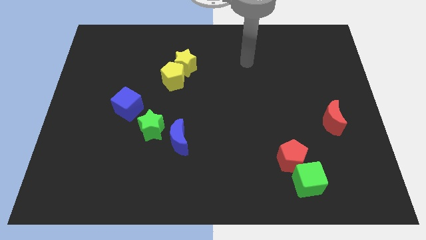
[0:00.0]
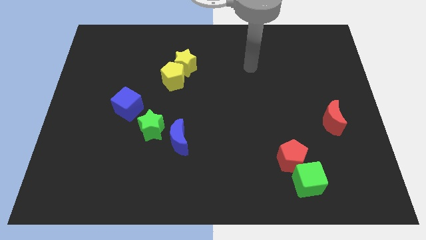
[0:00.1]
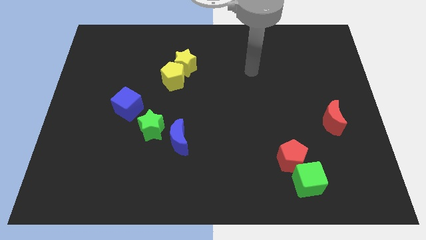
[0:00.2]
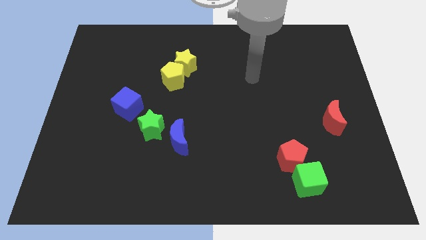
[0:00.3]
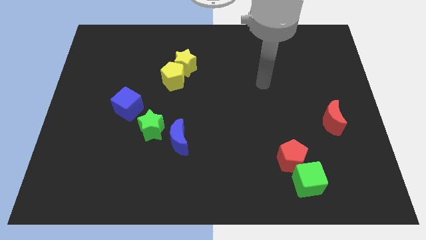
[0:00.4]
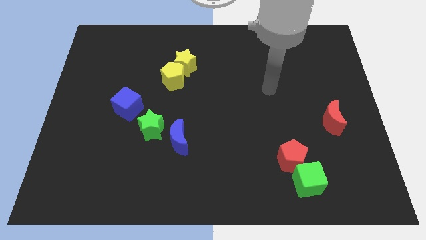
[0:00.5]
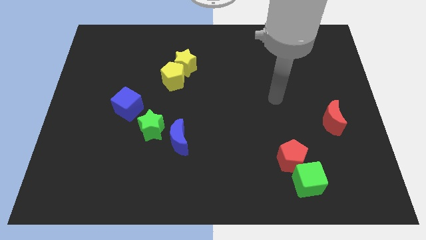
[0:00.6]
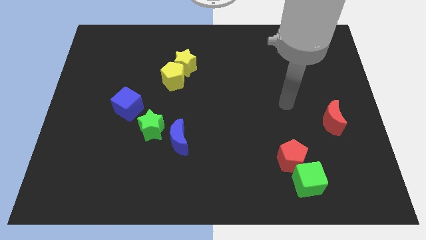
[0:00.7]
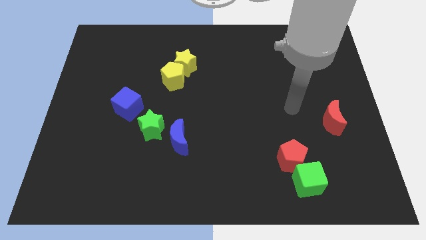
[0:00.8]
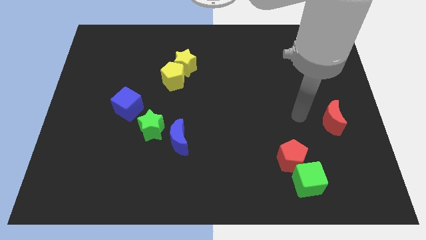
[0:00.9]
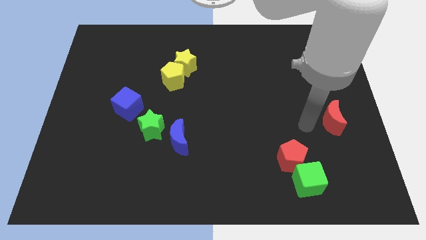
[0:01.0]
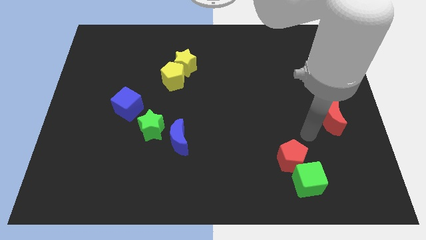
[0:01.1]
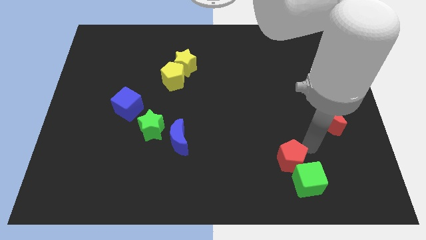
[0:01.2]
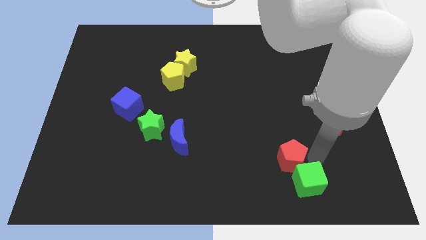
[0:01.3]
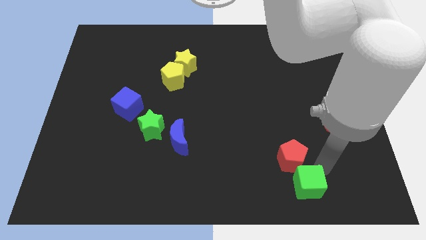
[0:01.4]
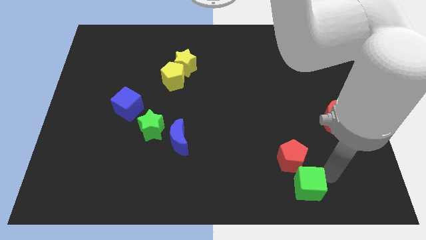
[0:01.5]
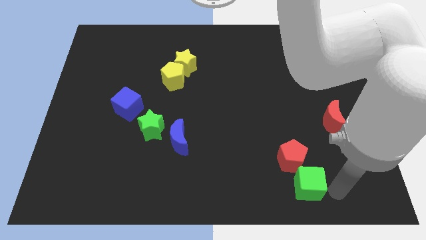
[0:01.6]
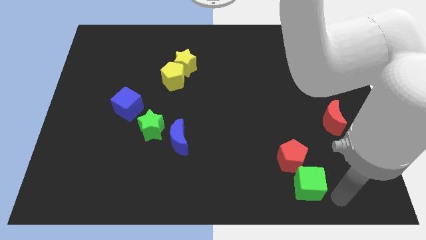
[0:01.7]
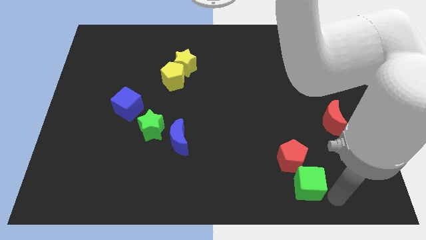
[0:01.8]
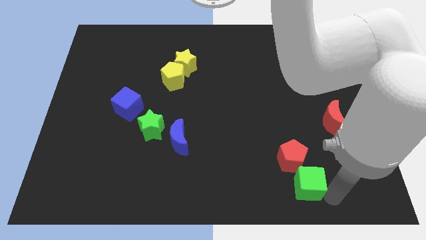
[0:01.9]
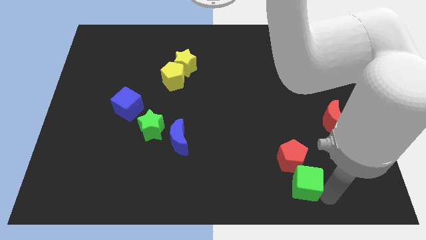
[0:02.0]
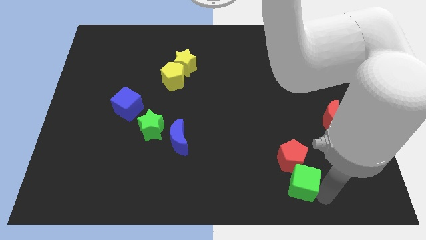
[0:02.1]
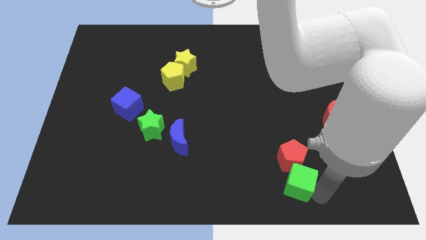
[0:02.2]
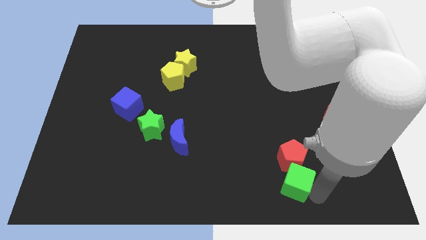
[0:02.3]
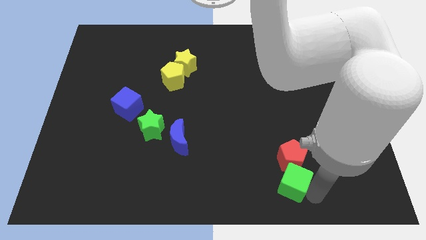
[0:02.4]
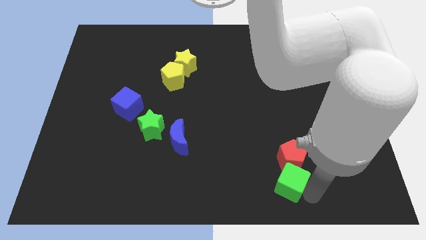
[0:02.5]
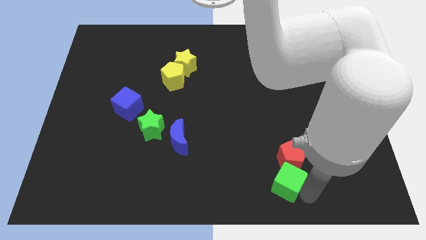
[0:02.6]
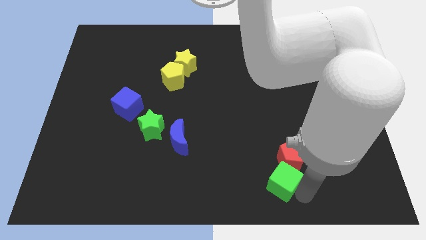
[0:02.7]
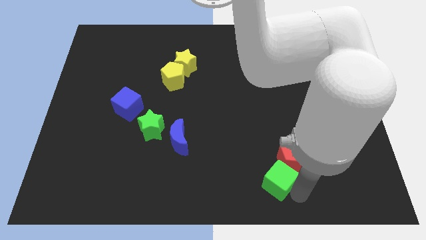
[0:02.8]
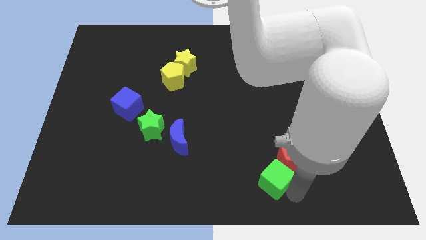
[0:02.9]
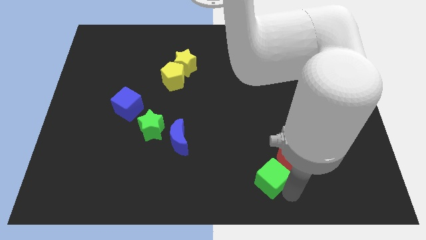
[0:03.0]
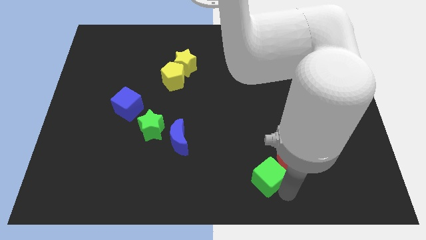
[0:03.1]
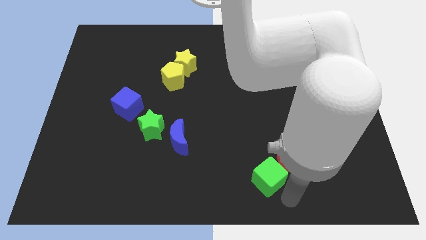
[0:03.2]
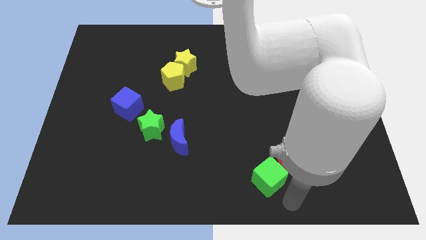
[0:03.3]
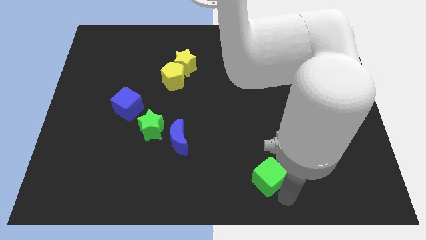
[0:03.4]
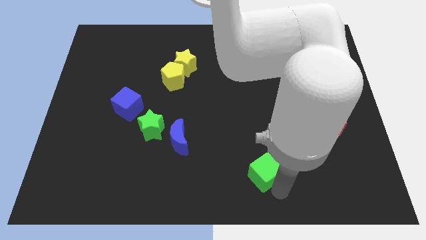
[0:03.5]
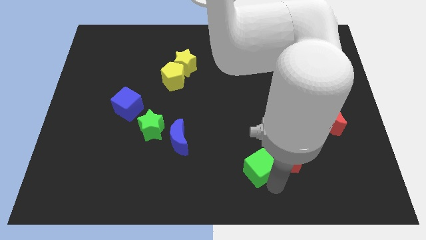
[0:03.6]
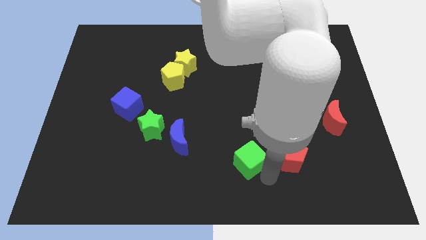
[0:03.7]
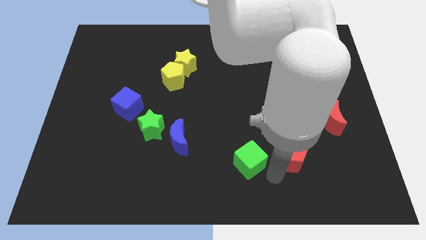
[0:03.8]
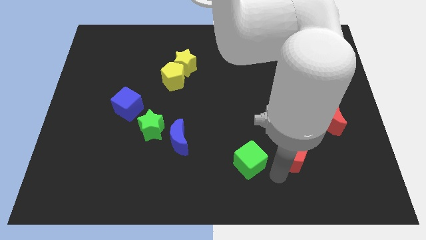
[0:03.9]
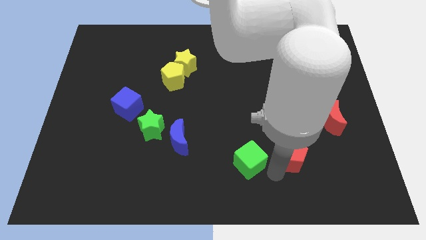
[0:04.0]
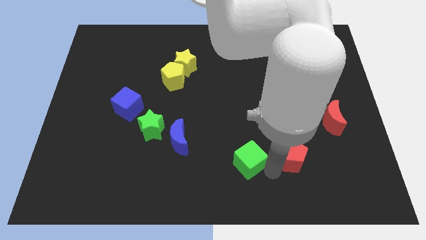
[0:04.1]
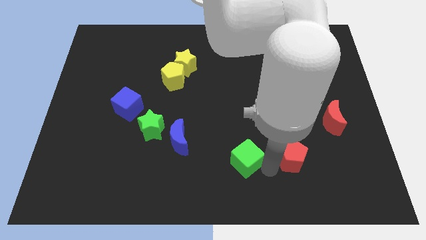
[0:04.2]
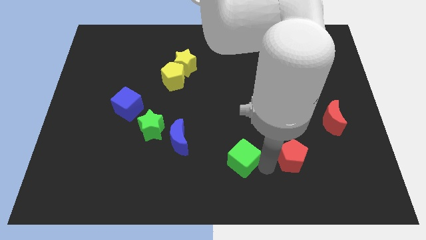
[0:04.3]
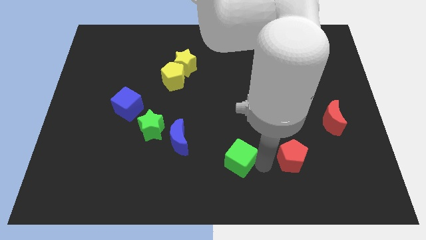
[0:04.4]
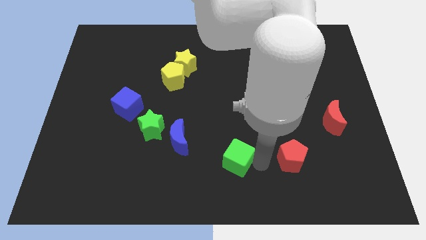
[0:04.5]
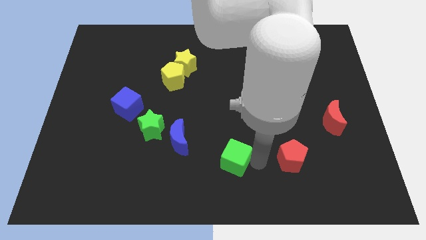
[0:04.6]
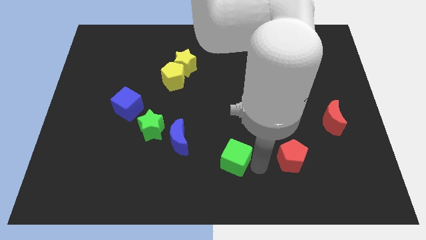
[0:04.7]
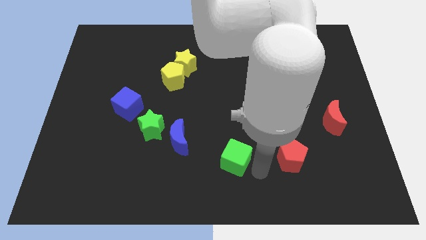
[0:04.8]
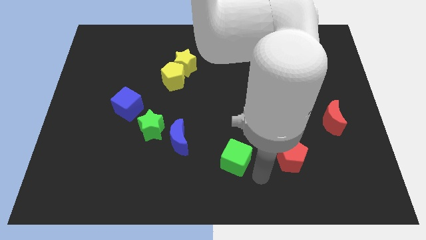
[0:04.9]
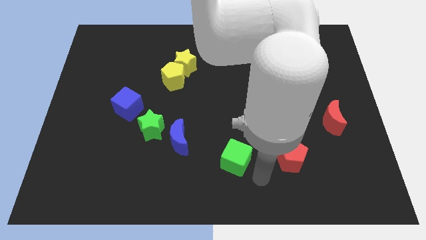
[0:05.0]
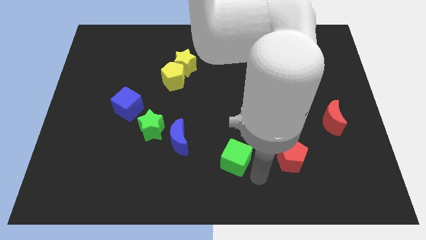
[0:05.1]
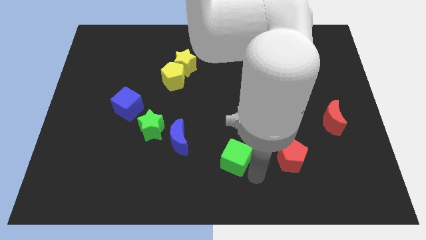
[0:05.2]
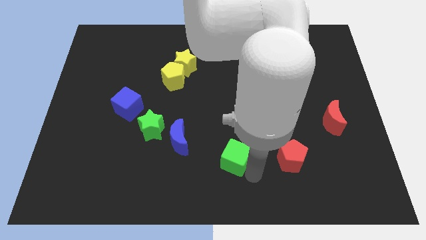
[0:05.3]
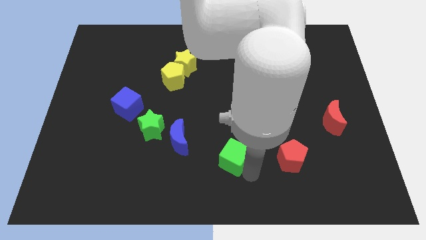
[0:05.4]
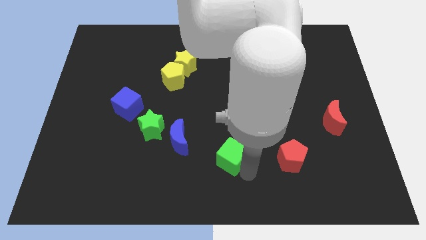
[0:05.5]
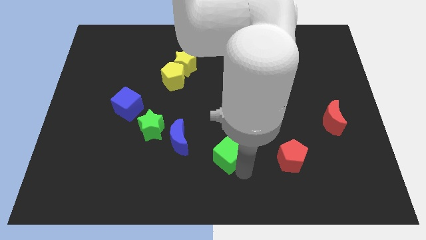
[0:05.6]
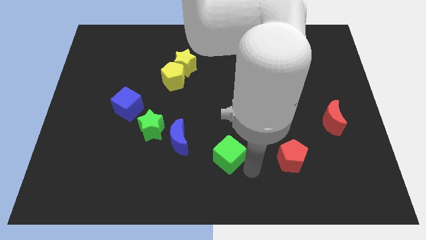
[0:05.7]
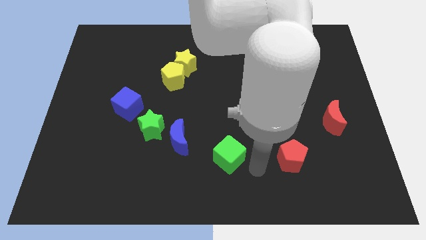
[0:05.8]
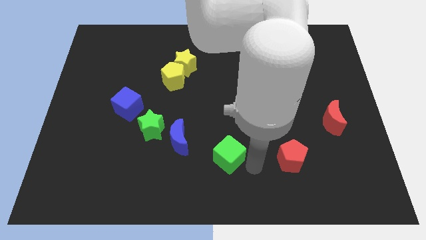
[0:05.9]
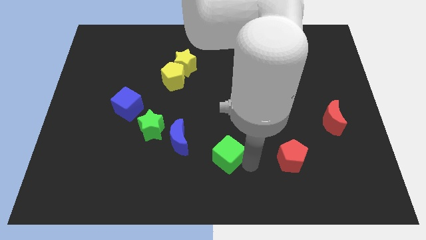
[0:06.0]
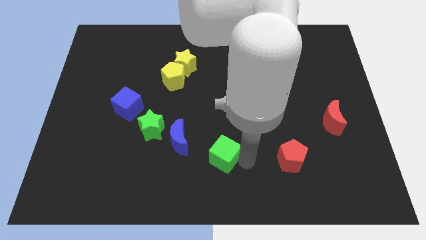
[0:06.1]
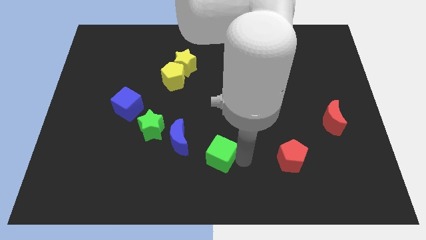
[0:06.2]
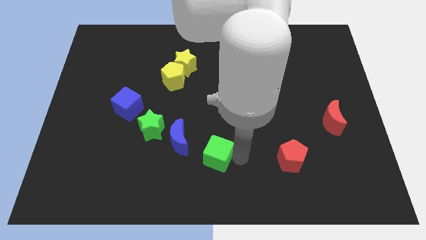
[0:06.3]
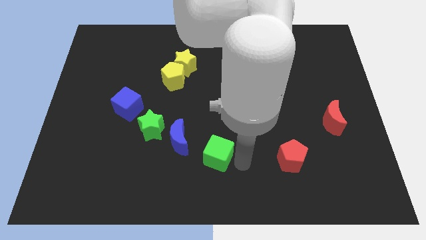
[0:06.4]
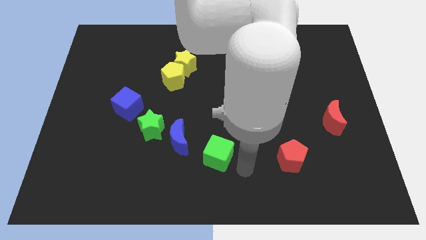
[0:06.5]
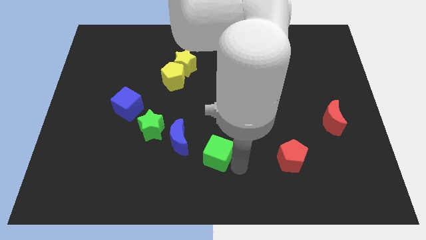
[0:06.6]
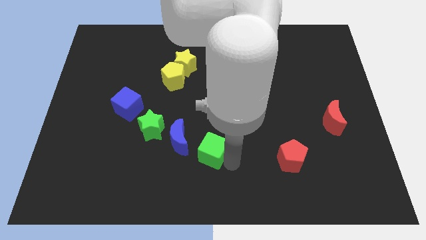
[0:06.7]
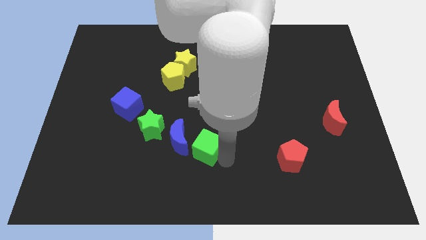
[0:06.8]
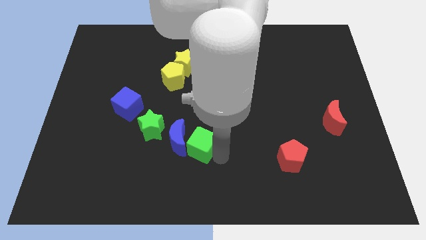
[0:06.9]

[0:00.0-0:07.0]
push the green cube close to the blue moon

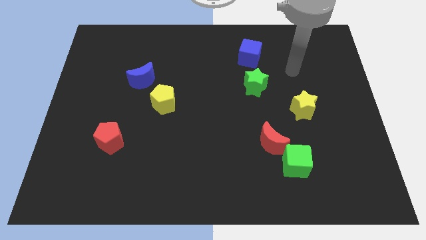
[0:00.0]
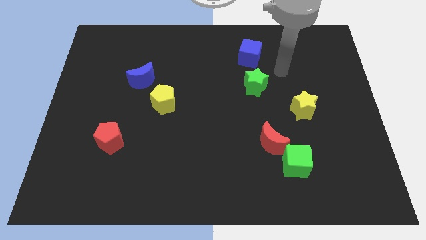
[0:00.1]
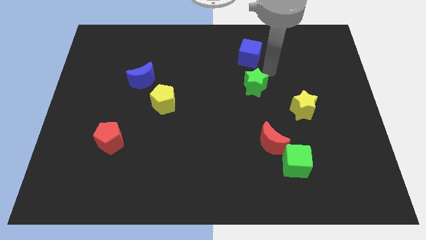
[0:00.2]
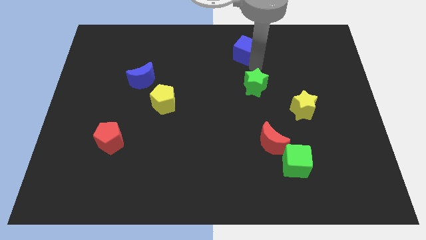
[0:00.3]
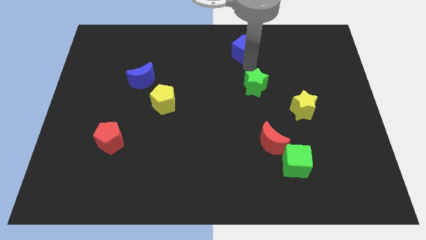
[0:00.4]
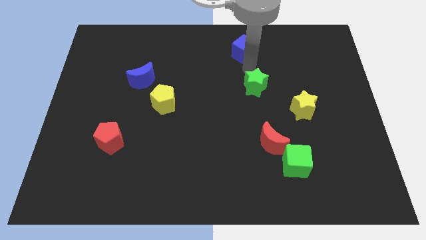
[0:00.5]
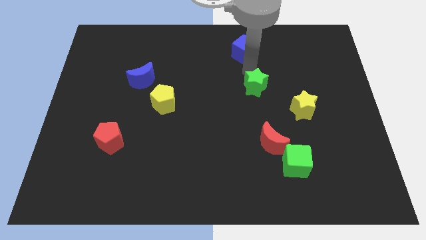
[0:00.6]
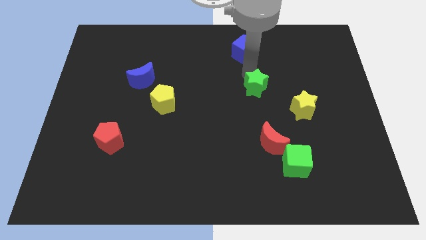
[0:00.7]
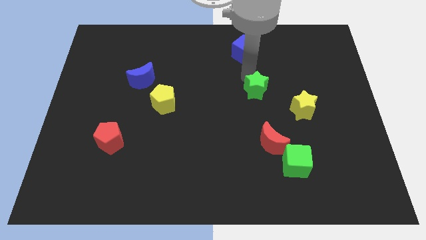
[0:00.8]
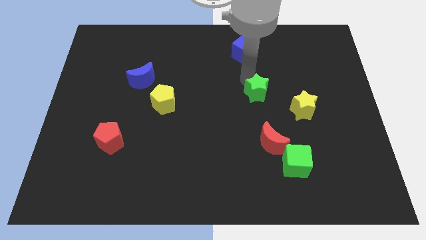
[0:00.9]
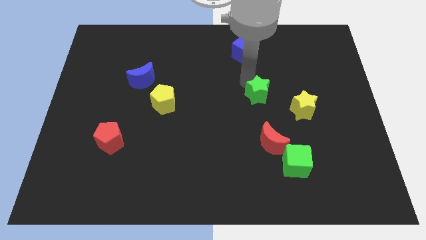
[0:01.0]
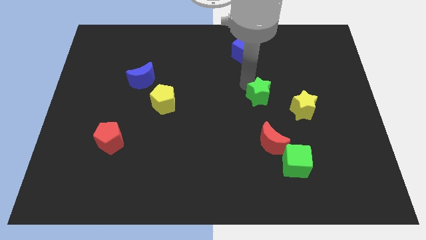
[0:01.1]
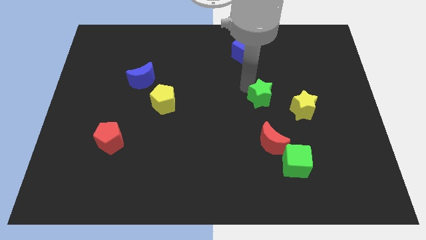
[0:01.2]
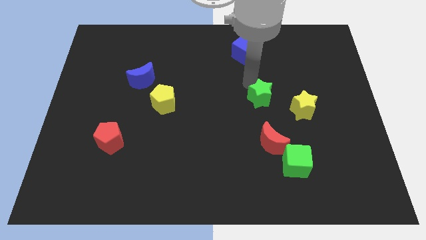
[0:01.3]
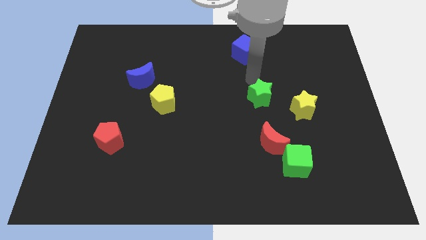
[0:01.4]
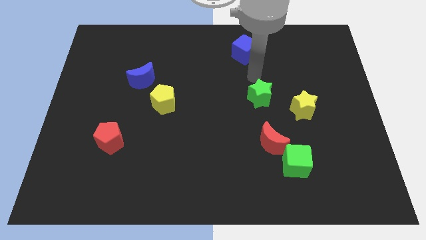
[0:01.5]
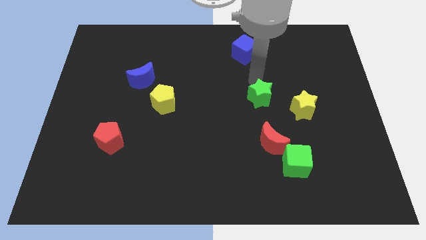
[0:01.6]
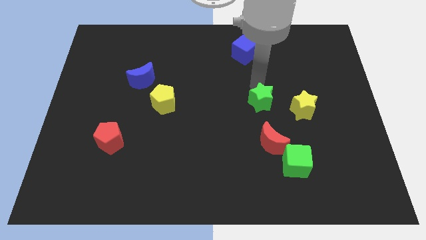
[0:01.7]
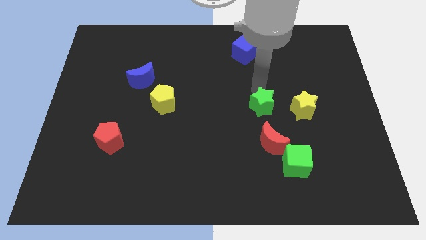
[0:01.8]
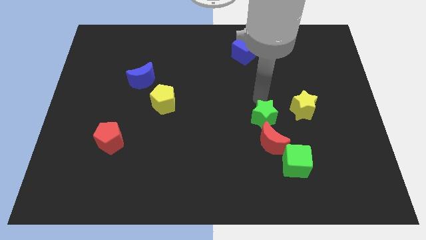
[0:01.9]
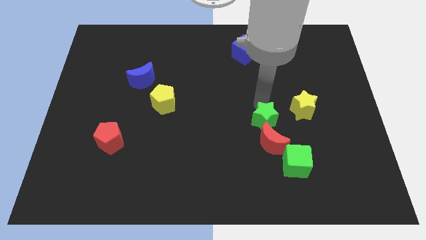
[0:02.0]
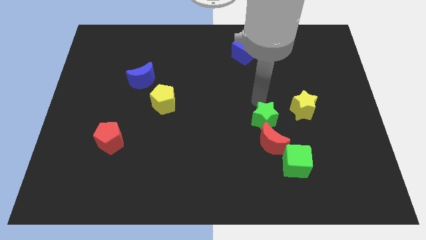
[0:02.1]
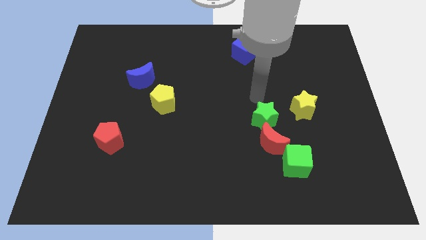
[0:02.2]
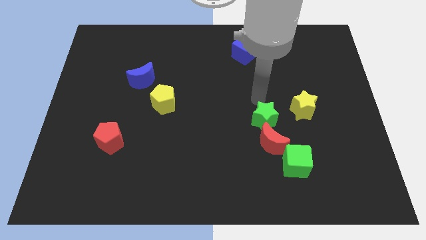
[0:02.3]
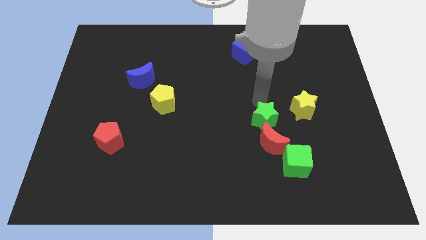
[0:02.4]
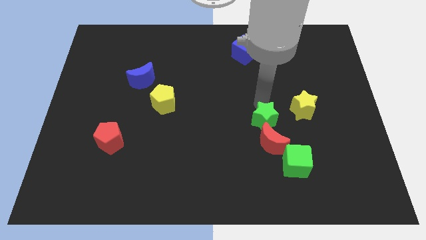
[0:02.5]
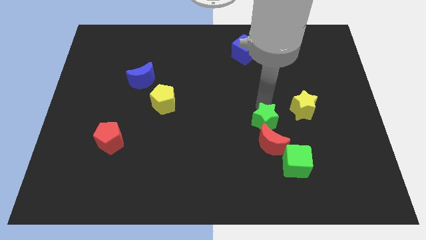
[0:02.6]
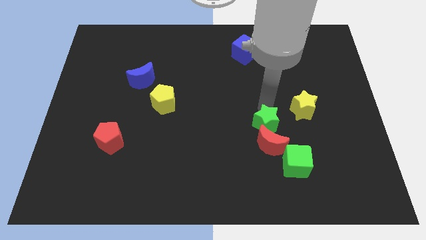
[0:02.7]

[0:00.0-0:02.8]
move the green star towards the red moon
